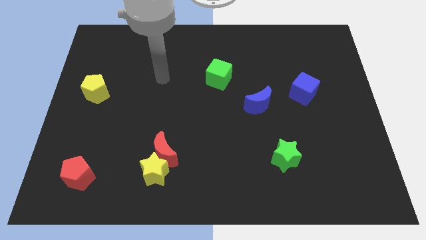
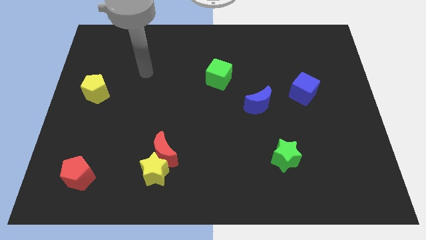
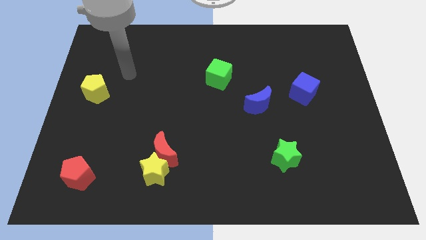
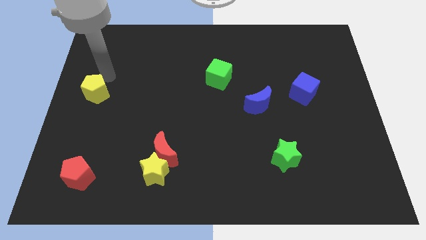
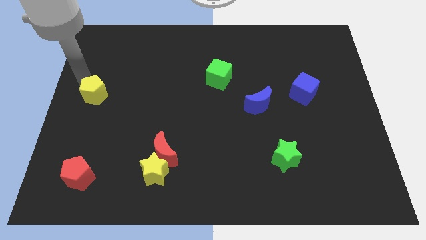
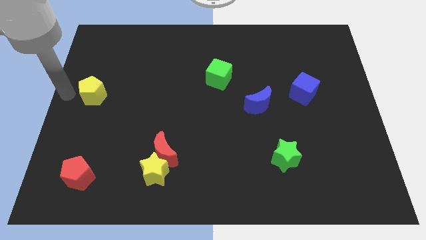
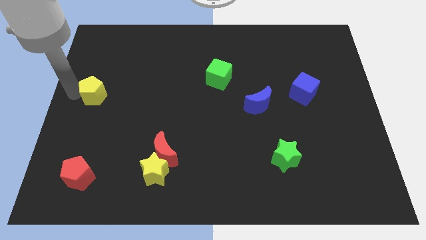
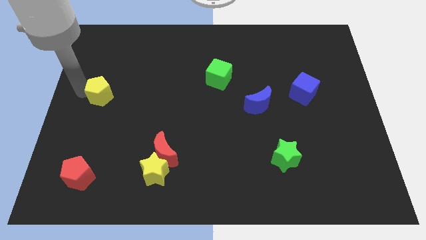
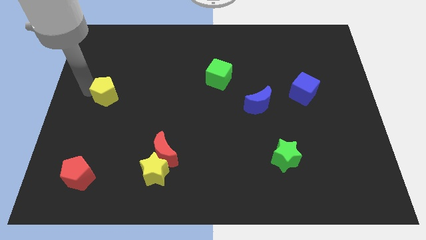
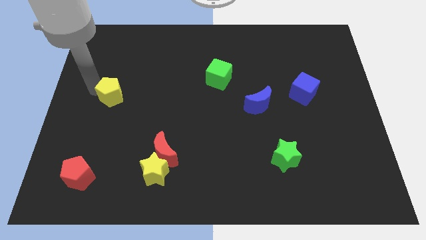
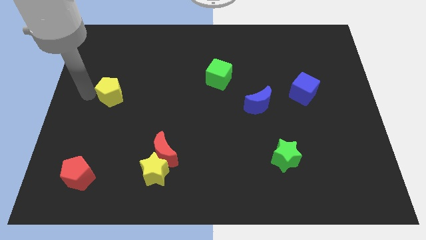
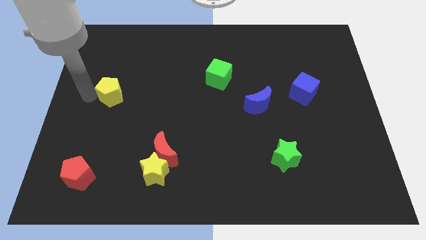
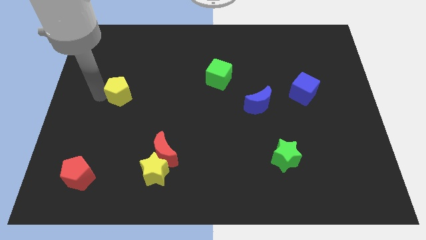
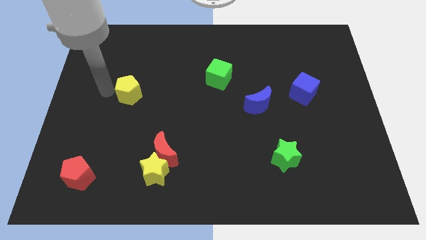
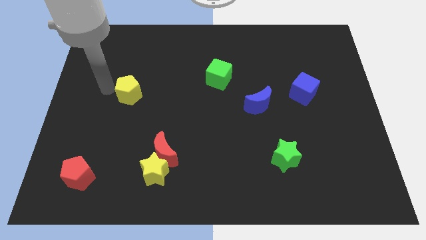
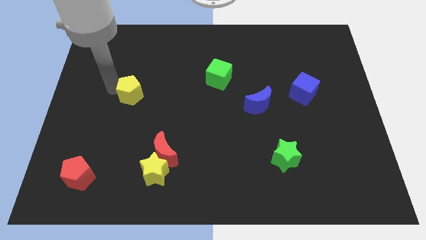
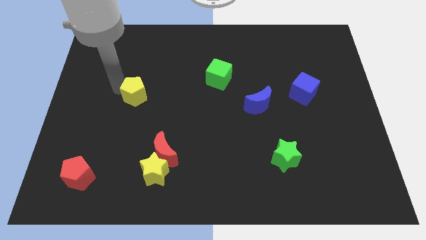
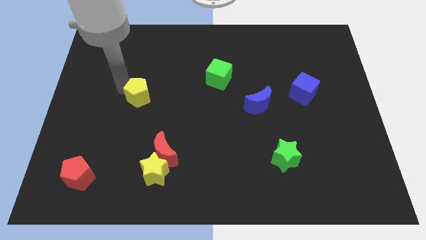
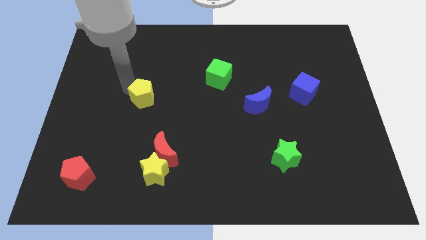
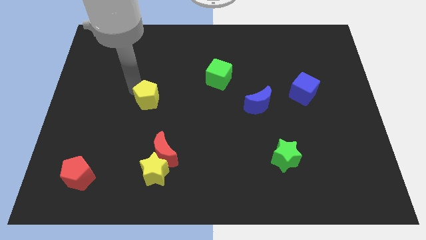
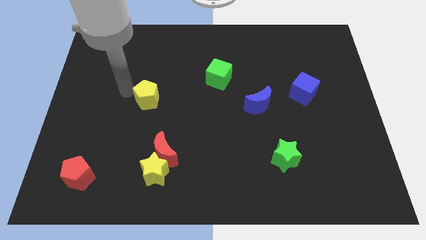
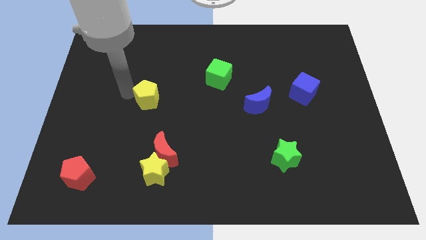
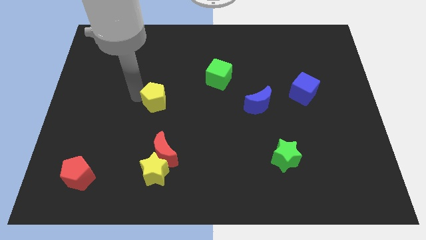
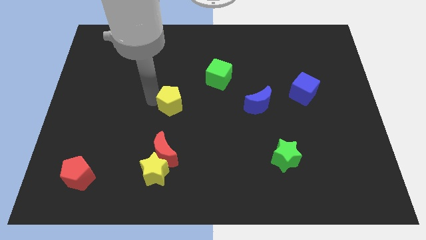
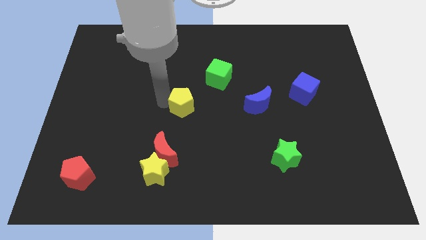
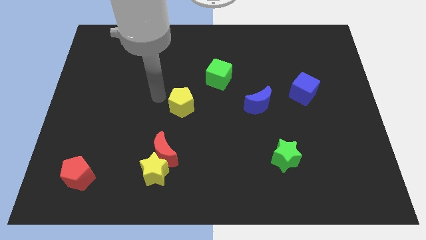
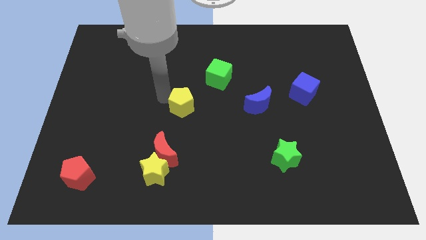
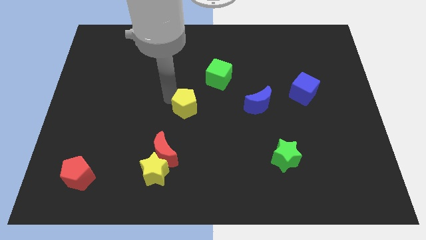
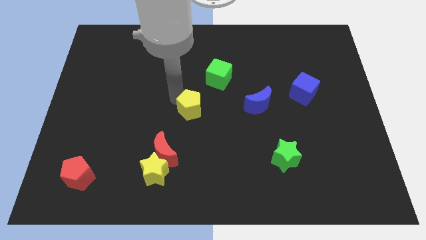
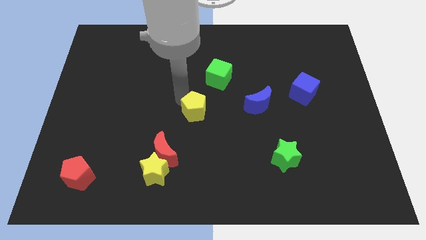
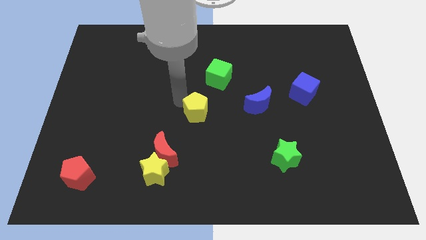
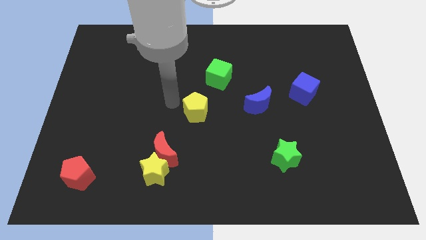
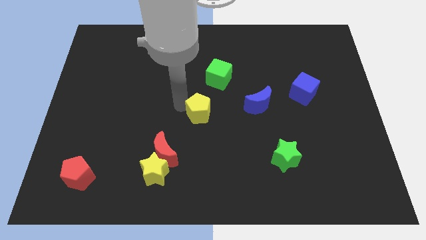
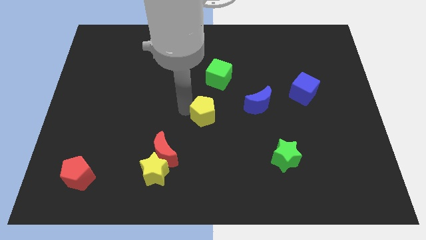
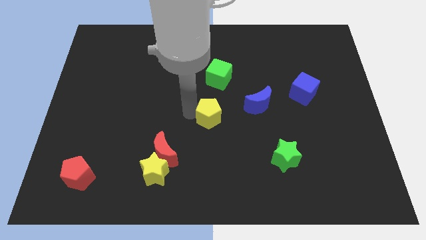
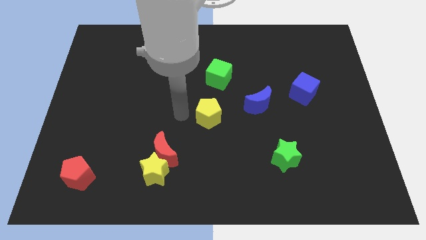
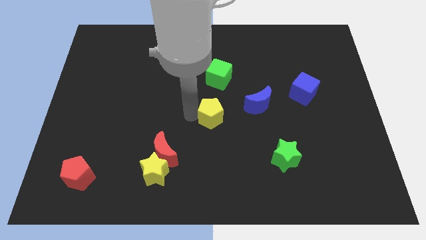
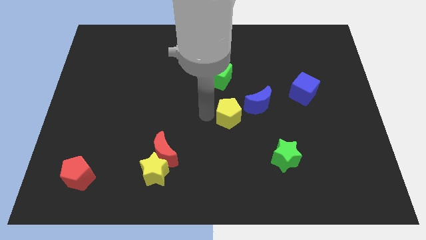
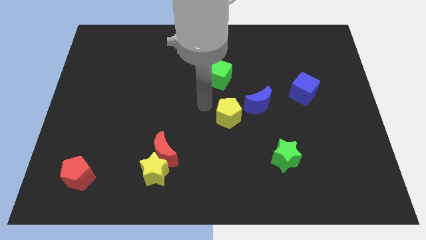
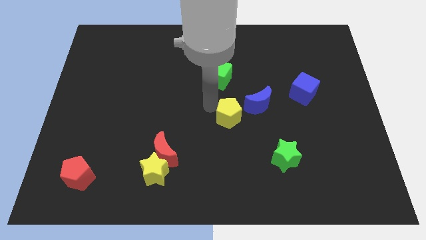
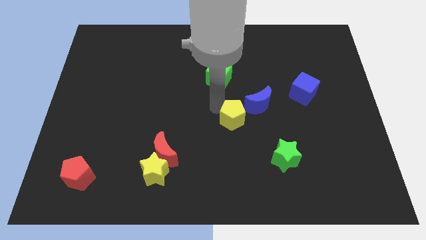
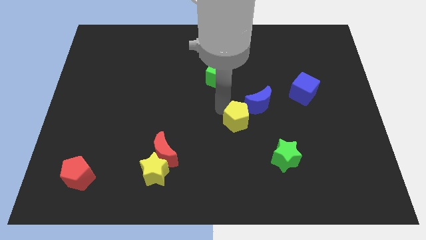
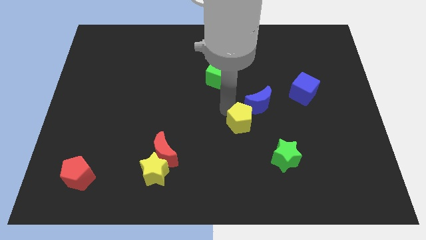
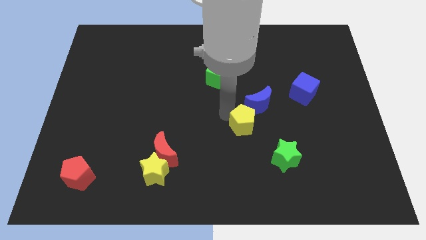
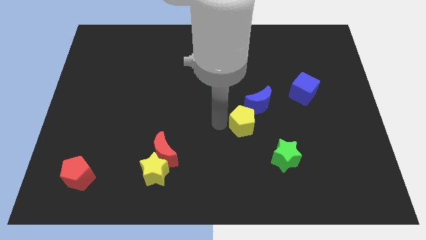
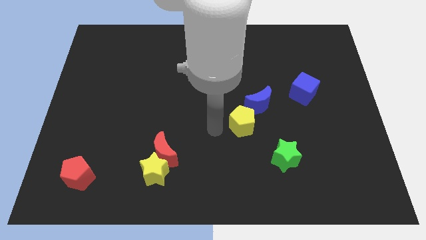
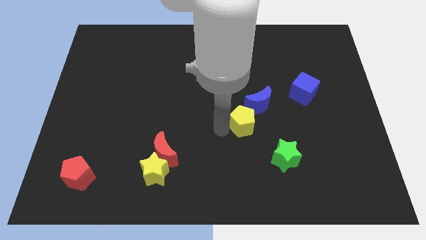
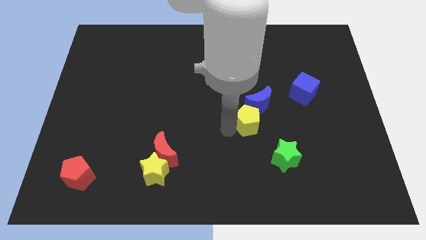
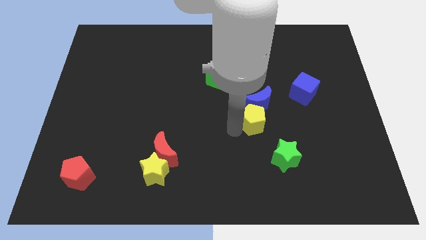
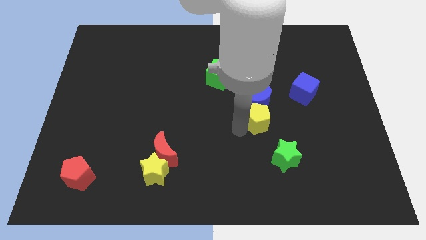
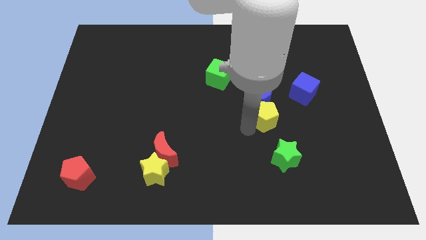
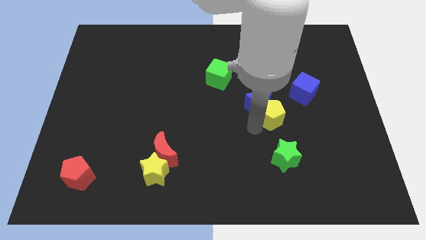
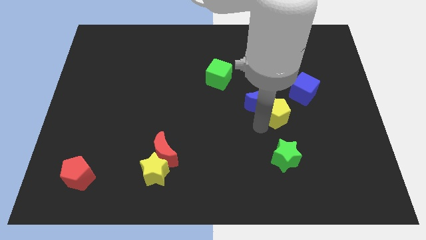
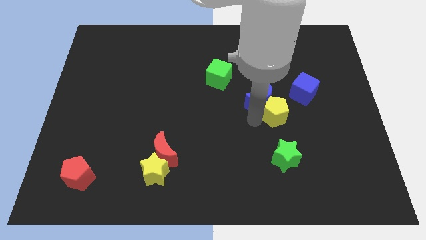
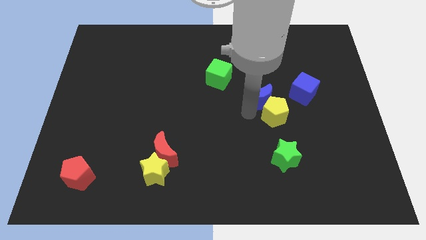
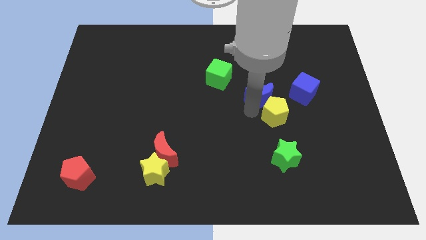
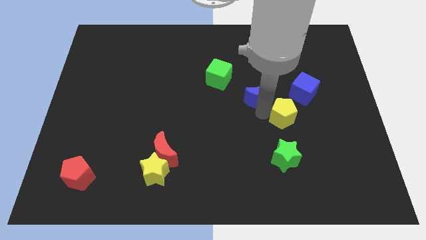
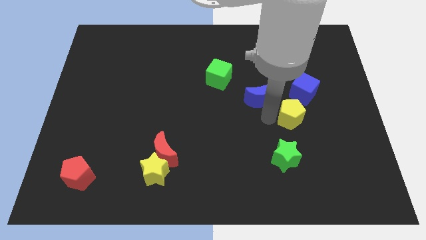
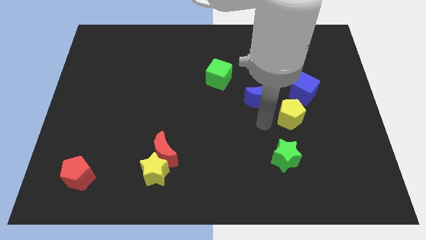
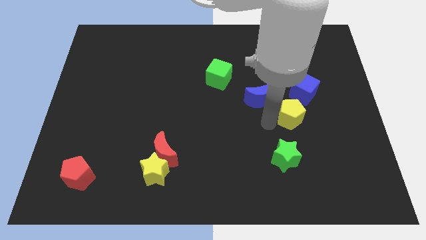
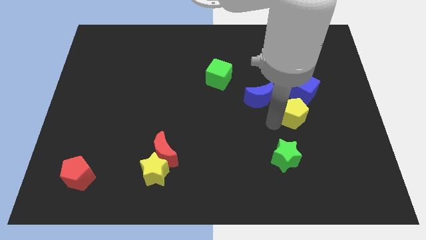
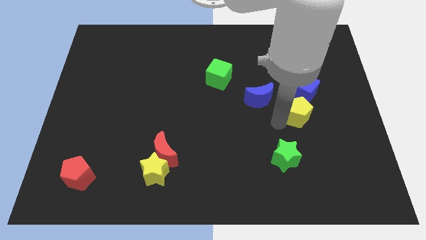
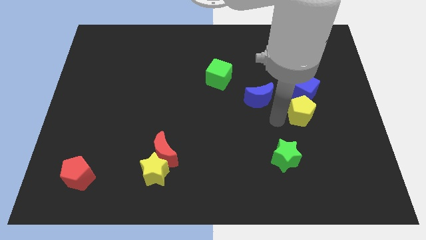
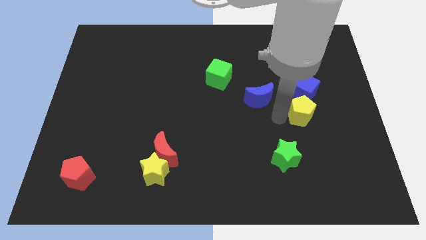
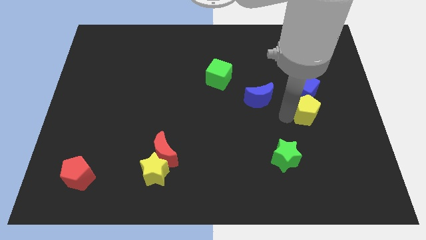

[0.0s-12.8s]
move the yellow pentagon to the bottom right side of the blue cube
